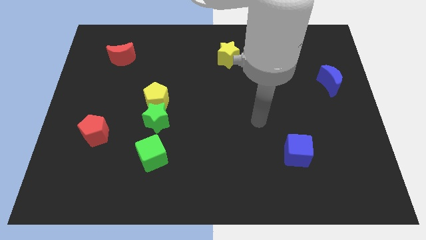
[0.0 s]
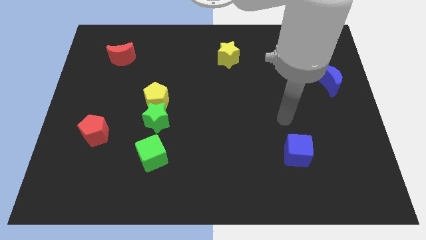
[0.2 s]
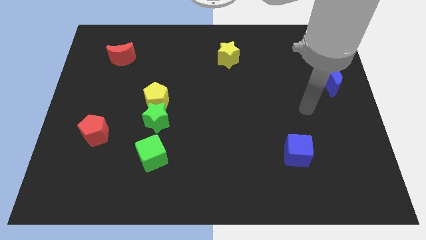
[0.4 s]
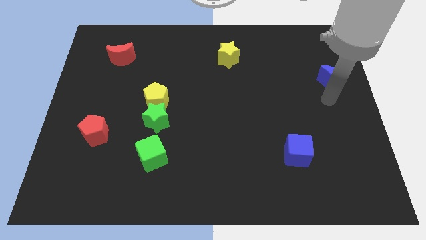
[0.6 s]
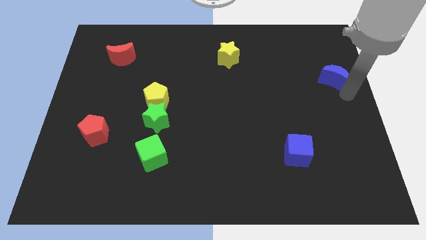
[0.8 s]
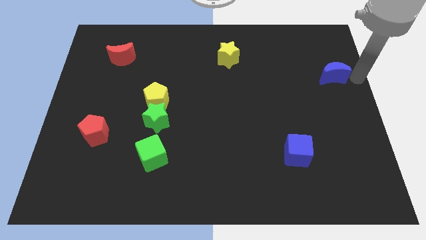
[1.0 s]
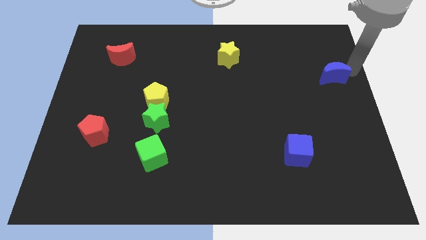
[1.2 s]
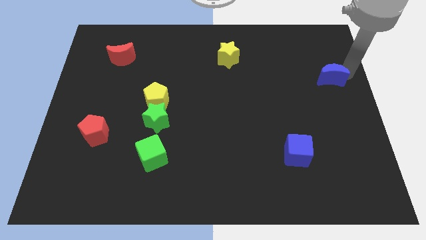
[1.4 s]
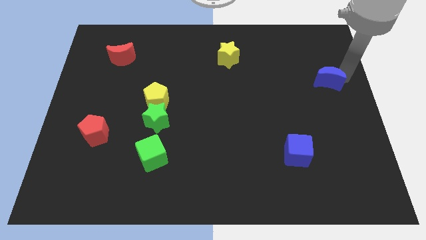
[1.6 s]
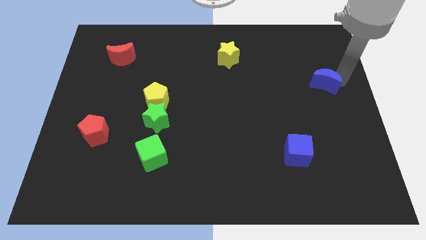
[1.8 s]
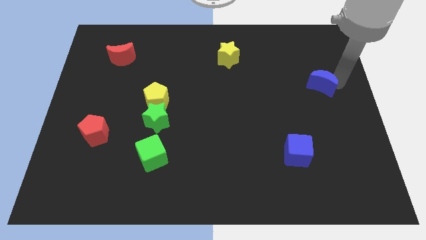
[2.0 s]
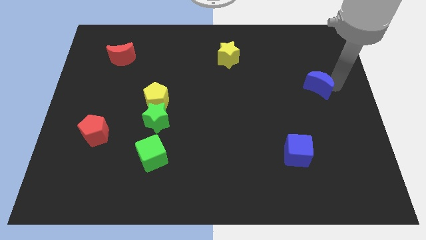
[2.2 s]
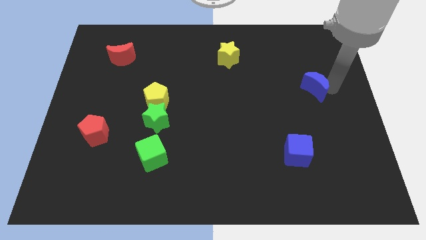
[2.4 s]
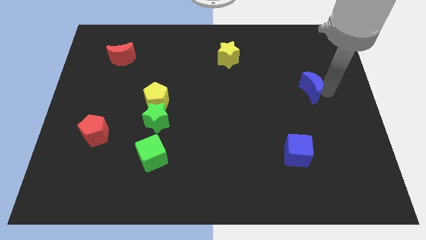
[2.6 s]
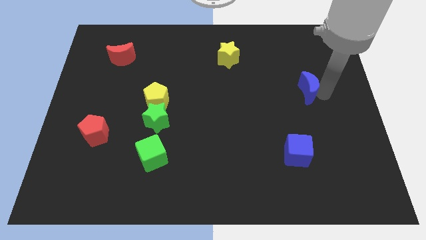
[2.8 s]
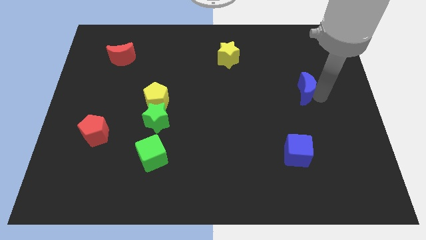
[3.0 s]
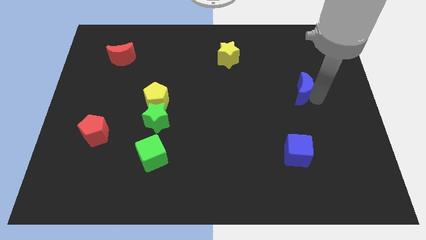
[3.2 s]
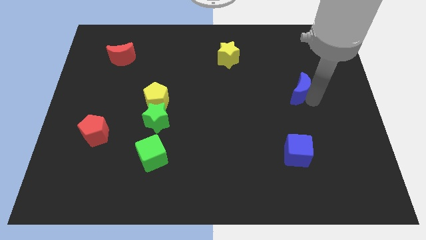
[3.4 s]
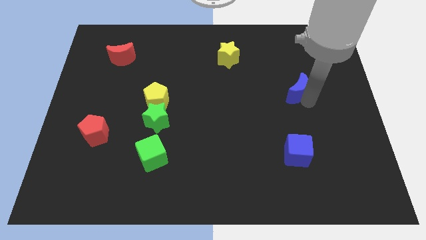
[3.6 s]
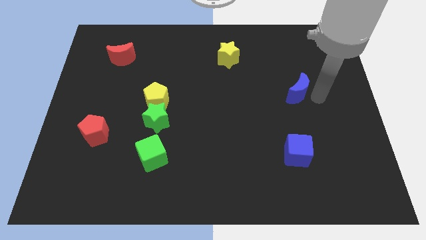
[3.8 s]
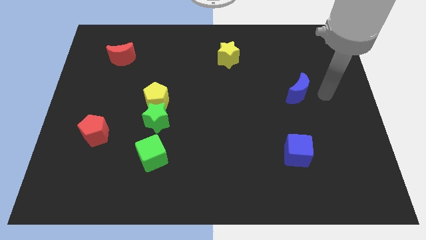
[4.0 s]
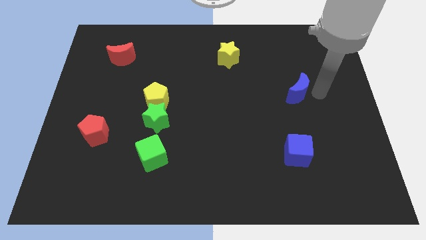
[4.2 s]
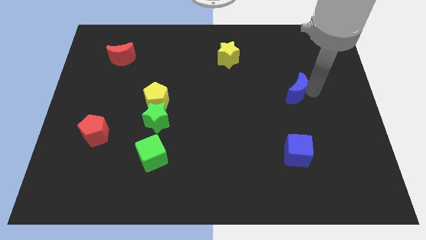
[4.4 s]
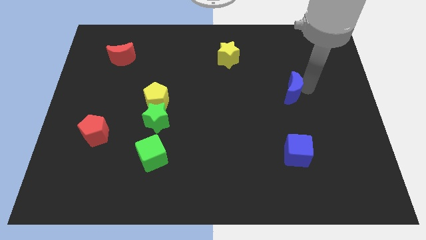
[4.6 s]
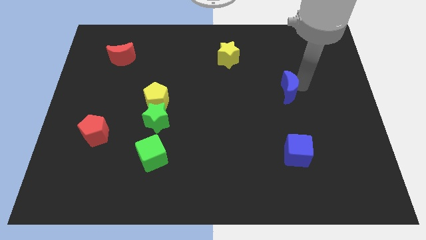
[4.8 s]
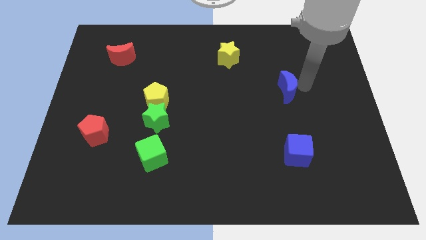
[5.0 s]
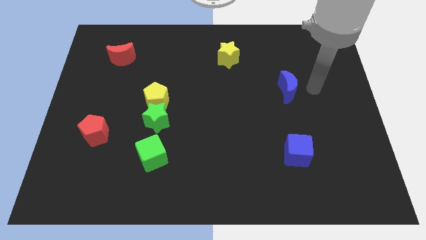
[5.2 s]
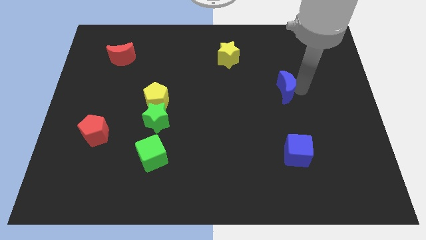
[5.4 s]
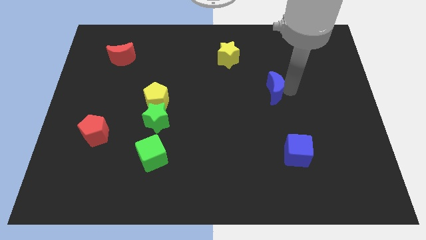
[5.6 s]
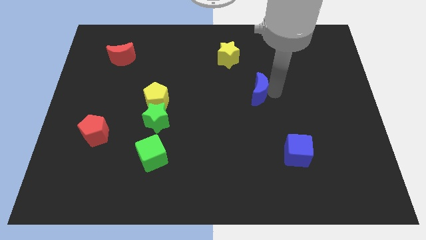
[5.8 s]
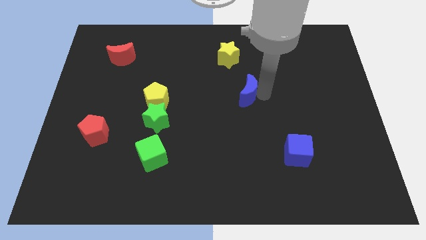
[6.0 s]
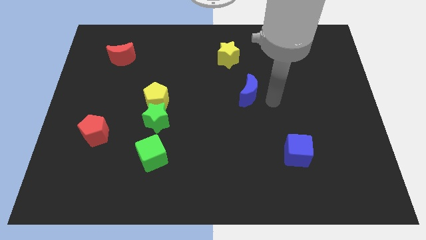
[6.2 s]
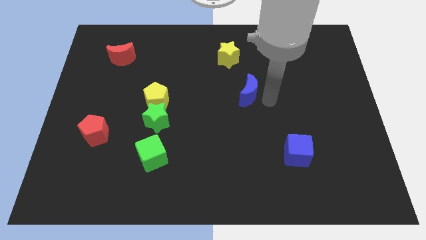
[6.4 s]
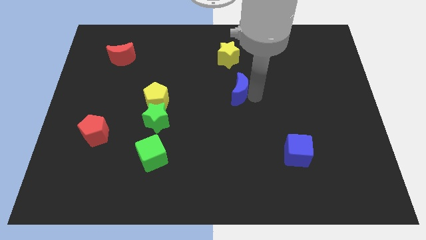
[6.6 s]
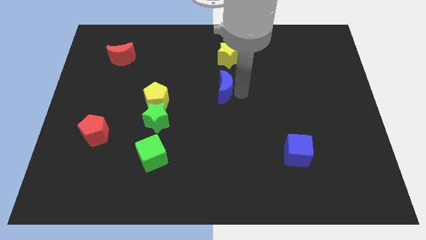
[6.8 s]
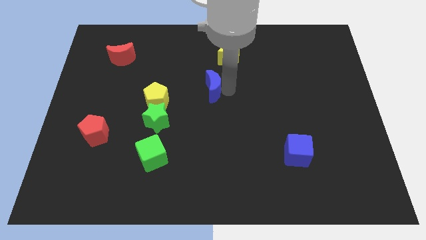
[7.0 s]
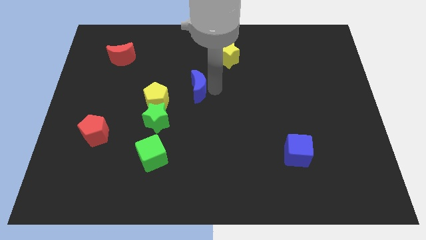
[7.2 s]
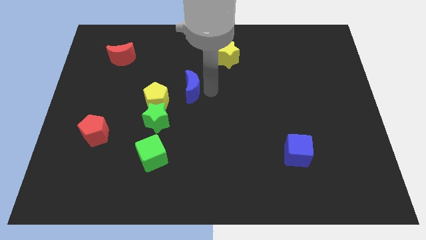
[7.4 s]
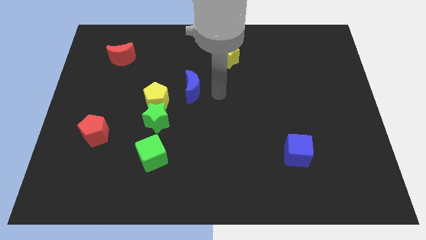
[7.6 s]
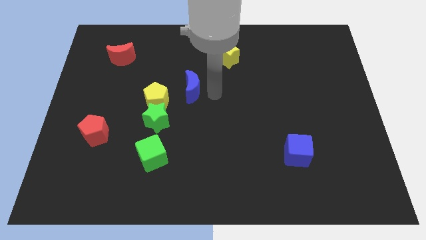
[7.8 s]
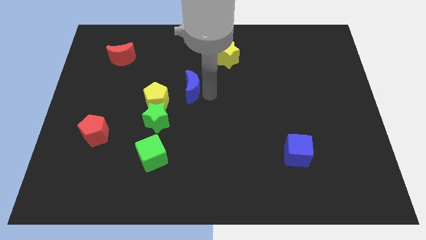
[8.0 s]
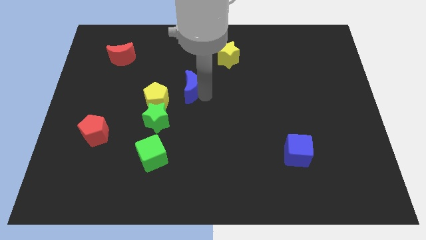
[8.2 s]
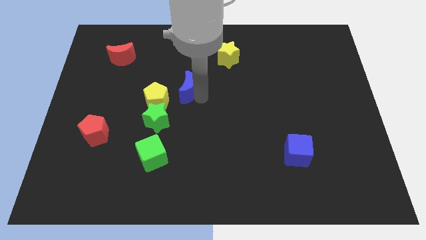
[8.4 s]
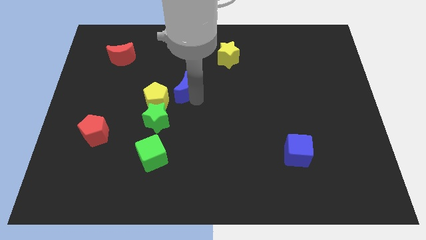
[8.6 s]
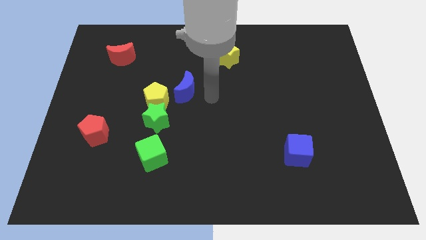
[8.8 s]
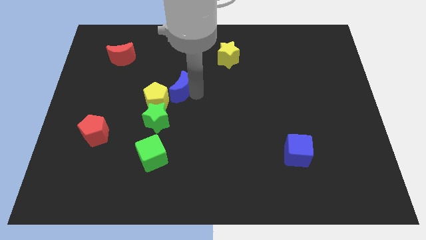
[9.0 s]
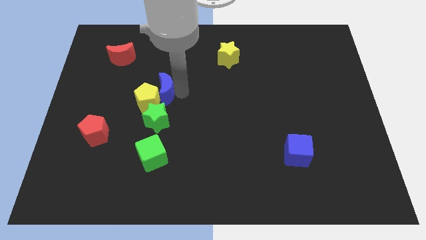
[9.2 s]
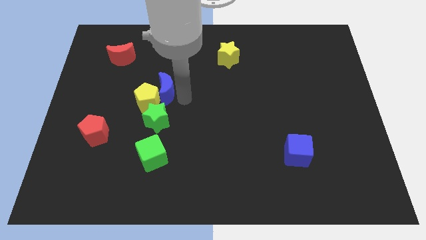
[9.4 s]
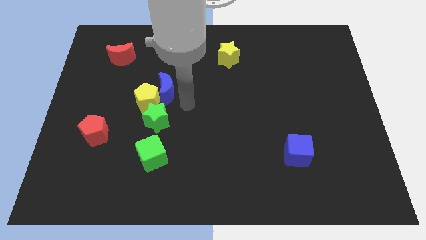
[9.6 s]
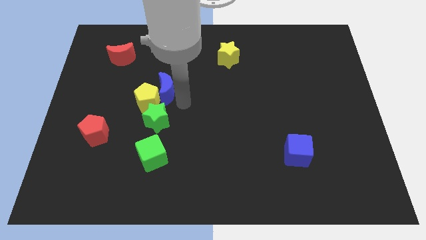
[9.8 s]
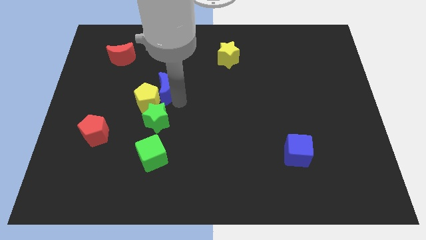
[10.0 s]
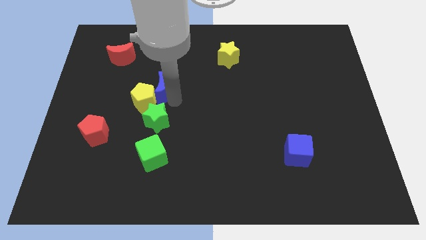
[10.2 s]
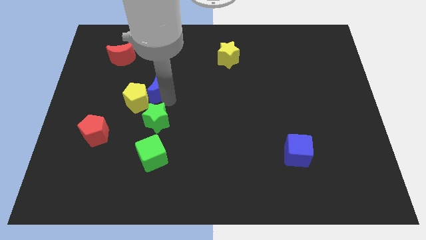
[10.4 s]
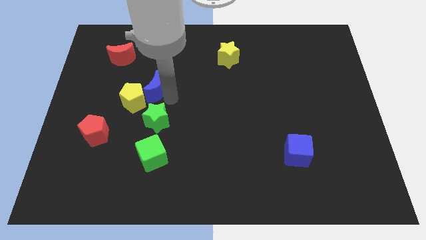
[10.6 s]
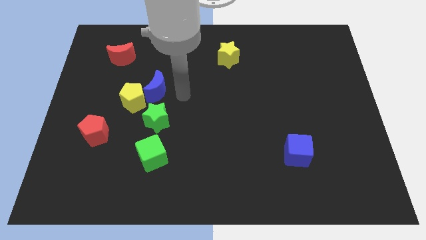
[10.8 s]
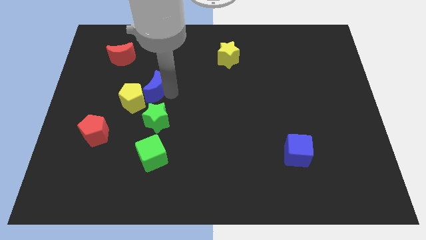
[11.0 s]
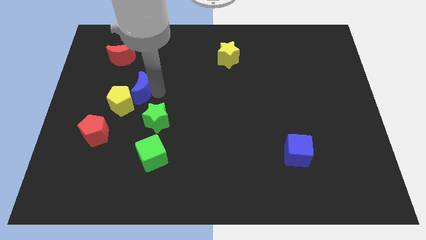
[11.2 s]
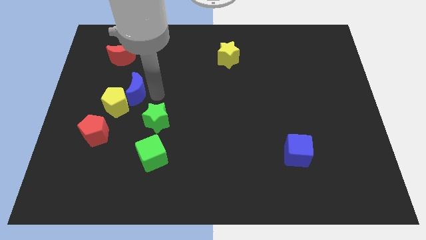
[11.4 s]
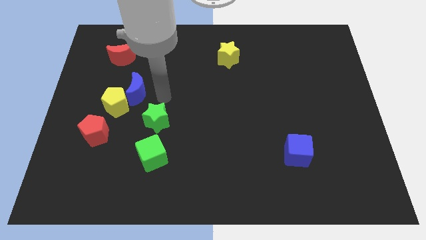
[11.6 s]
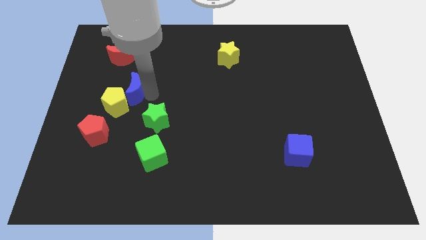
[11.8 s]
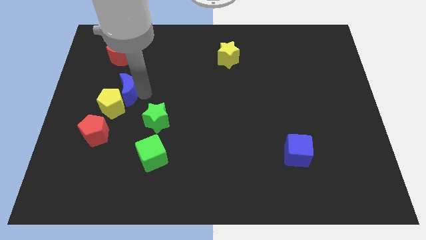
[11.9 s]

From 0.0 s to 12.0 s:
push the blue moon to the bottom side of the red moon
